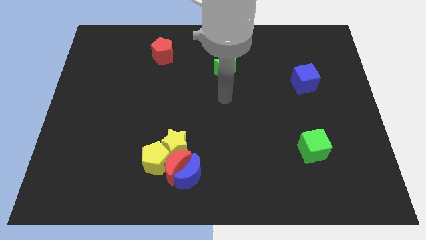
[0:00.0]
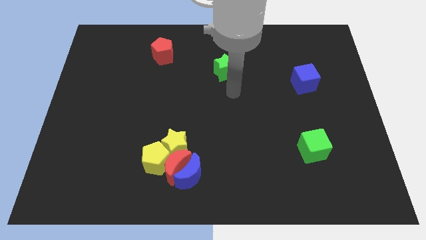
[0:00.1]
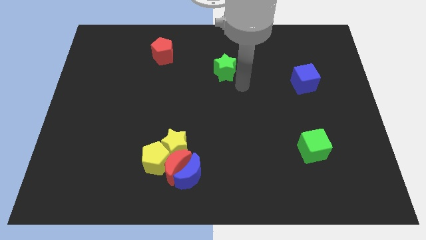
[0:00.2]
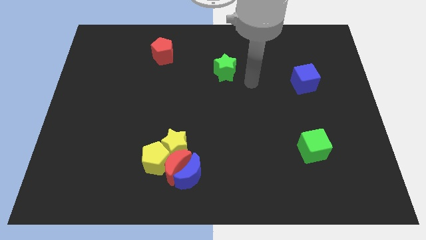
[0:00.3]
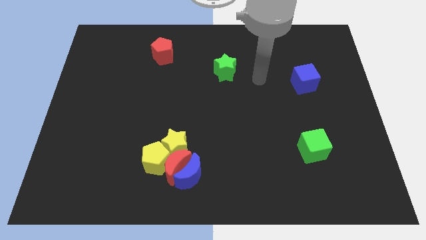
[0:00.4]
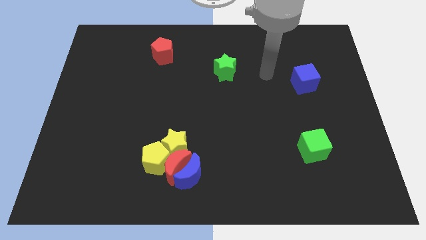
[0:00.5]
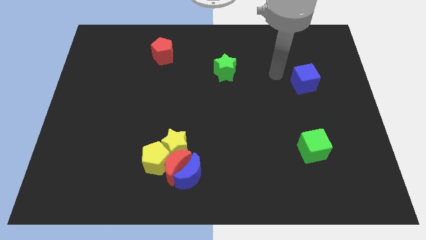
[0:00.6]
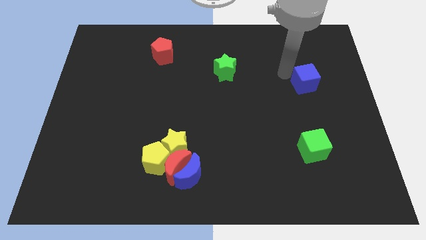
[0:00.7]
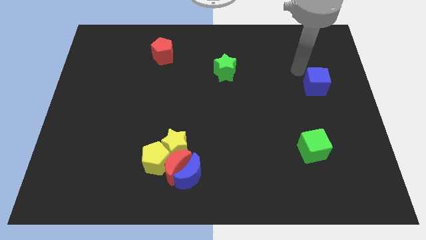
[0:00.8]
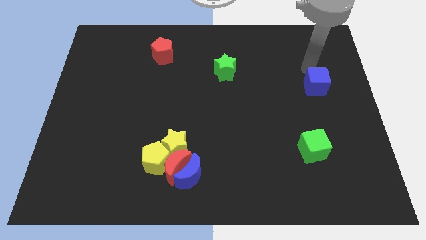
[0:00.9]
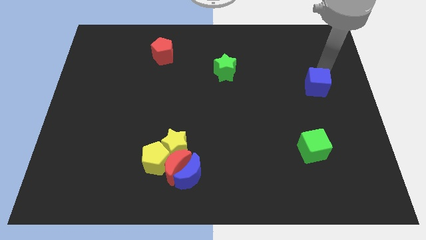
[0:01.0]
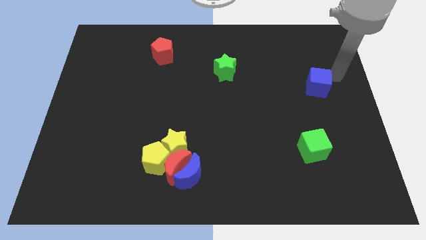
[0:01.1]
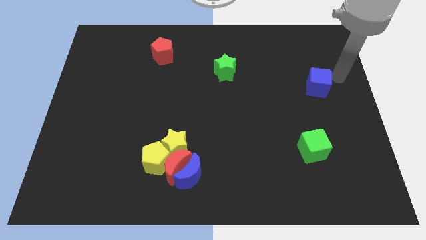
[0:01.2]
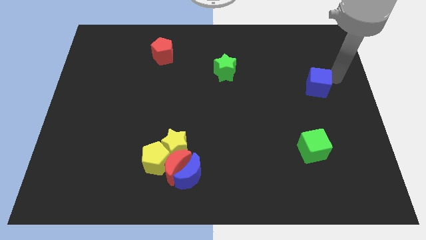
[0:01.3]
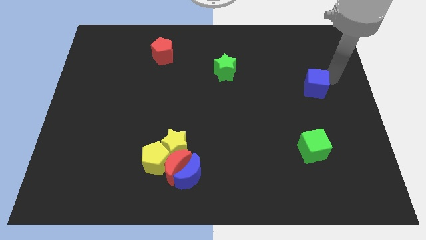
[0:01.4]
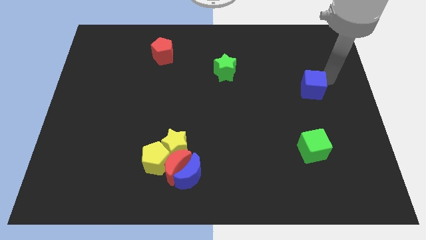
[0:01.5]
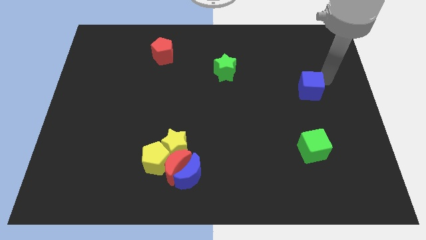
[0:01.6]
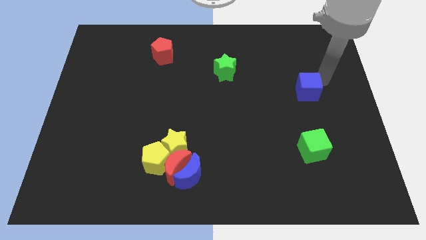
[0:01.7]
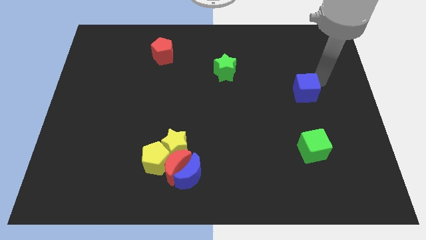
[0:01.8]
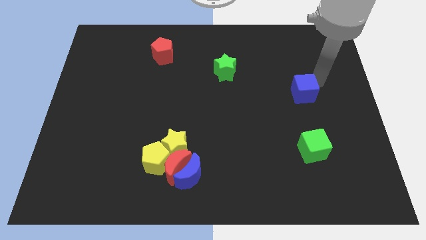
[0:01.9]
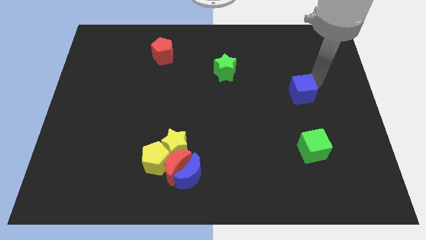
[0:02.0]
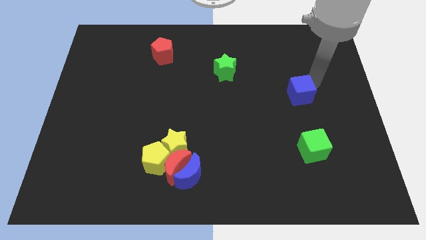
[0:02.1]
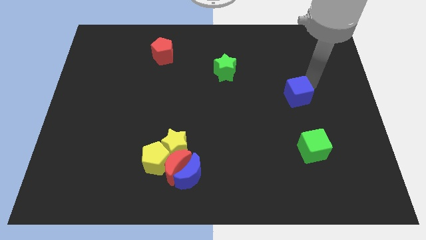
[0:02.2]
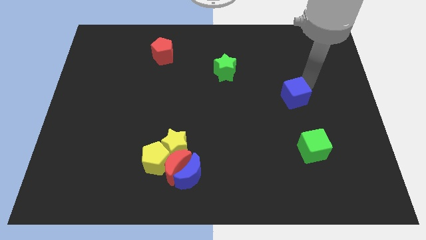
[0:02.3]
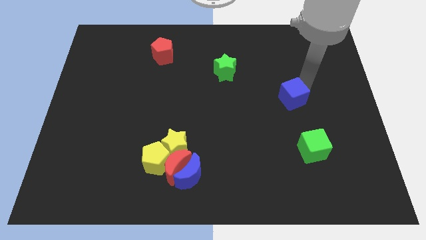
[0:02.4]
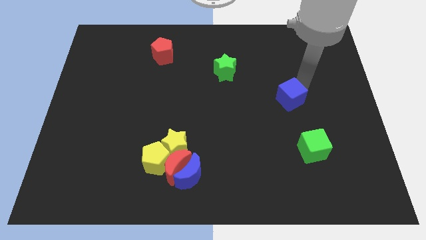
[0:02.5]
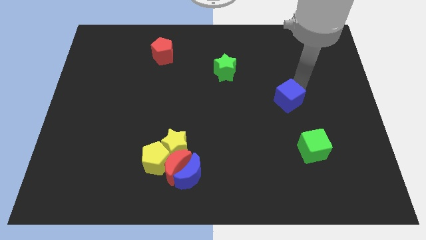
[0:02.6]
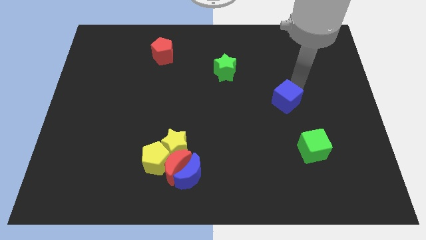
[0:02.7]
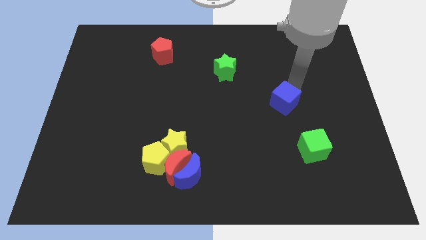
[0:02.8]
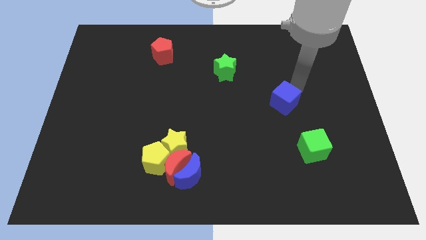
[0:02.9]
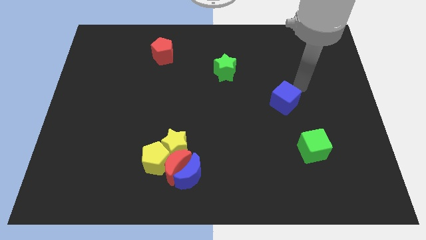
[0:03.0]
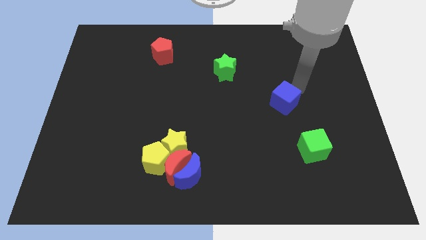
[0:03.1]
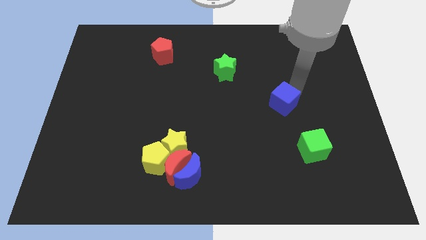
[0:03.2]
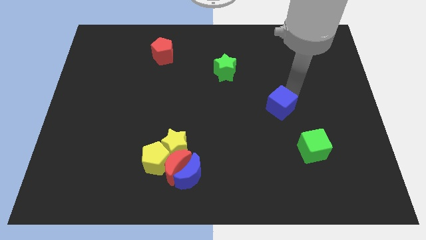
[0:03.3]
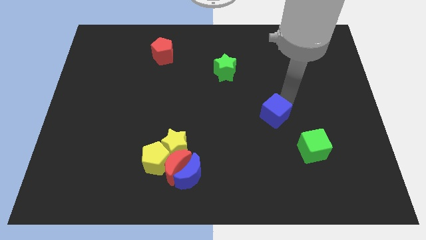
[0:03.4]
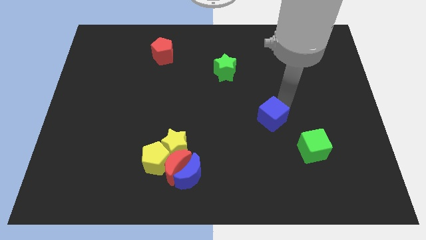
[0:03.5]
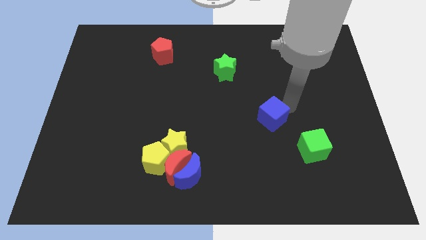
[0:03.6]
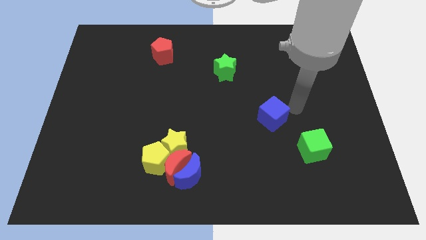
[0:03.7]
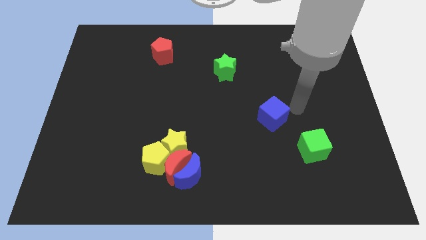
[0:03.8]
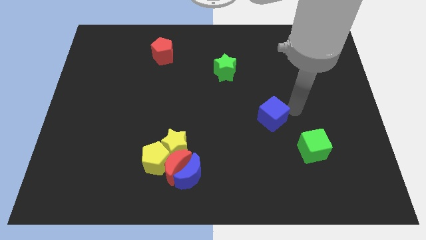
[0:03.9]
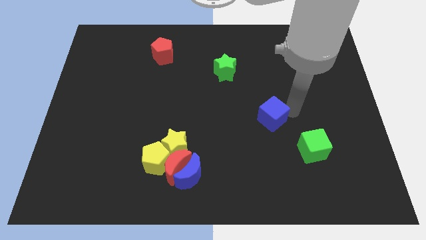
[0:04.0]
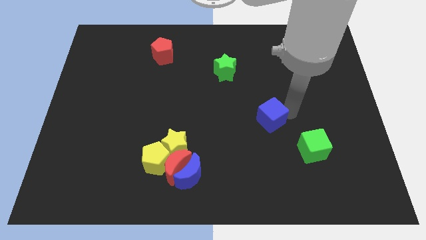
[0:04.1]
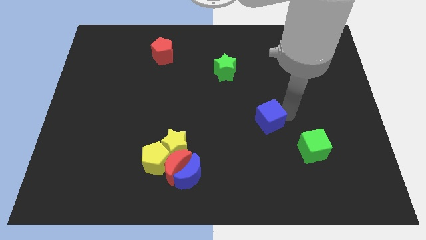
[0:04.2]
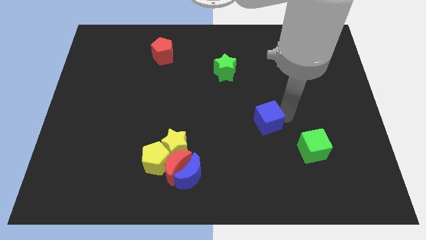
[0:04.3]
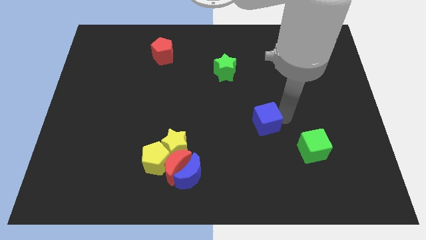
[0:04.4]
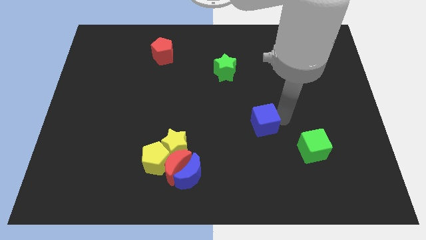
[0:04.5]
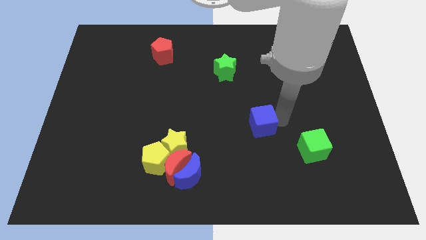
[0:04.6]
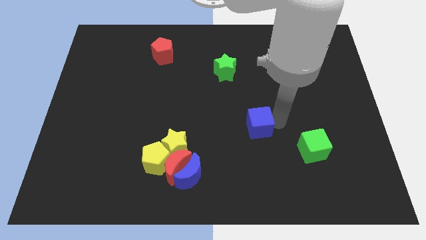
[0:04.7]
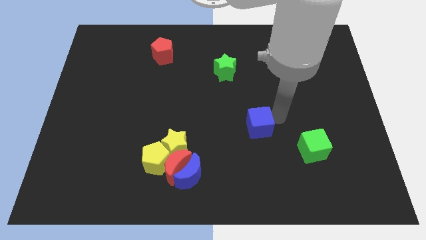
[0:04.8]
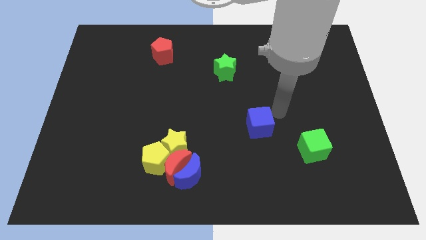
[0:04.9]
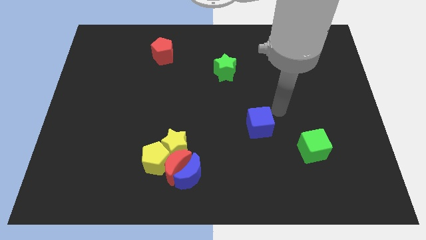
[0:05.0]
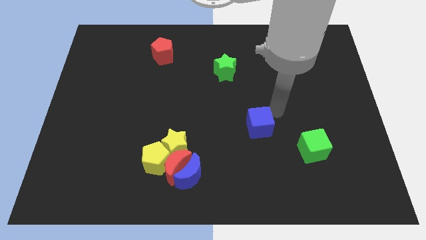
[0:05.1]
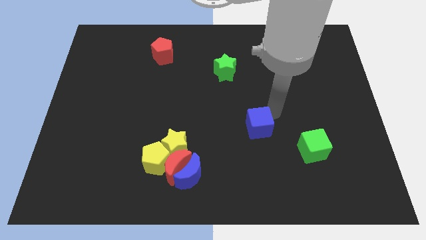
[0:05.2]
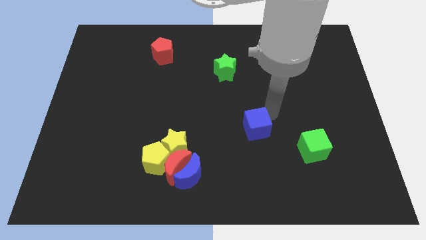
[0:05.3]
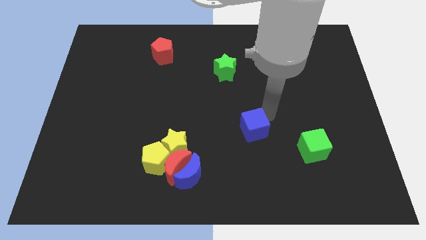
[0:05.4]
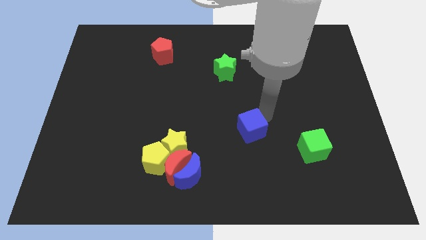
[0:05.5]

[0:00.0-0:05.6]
slide the blue cube diagonally downwards and to the left

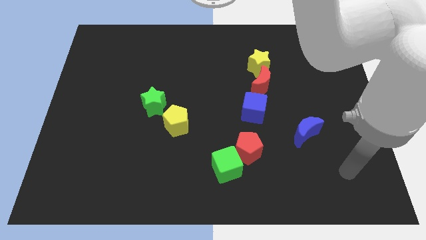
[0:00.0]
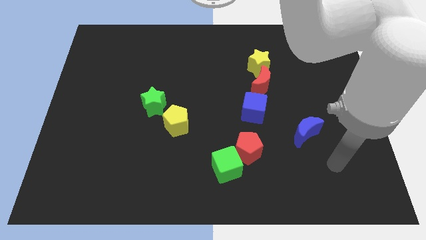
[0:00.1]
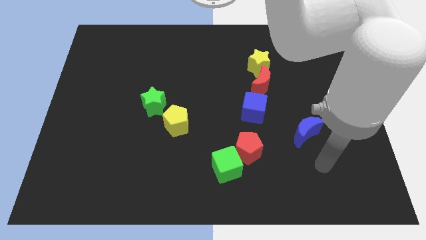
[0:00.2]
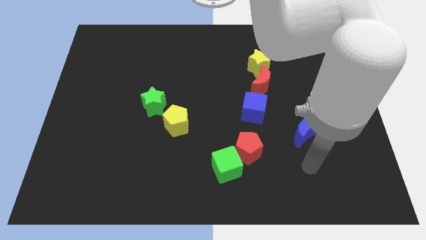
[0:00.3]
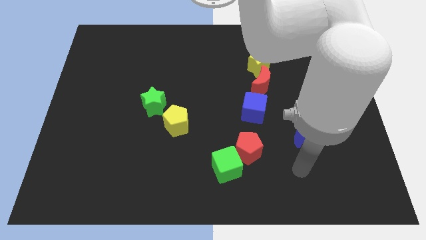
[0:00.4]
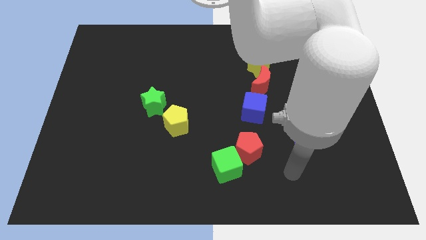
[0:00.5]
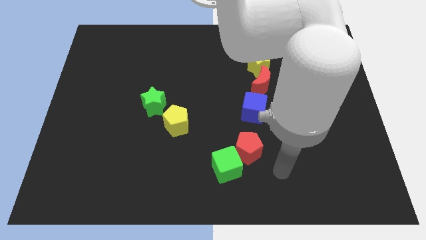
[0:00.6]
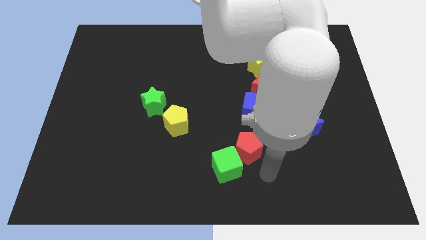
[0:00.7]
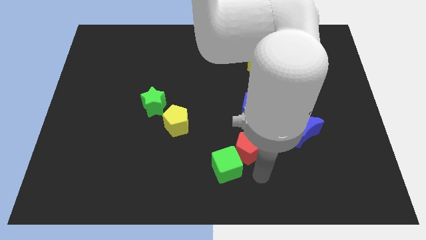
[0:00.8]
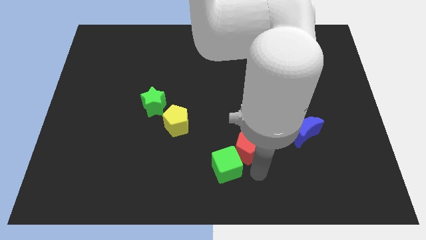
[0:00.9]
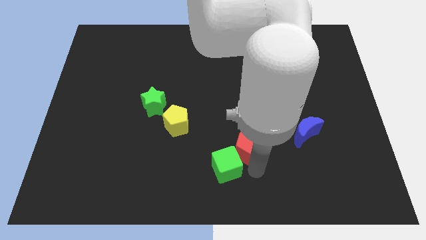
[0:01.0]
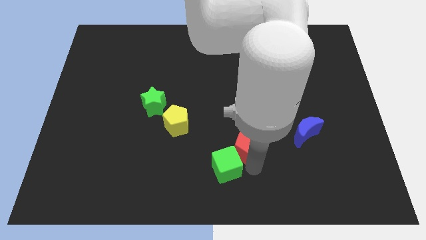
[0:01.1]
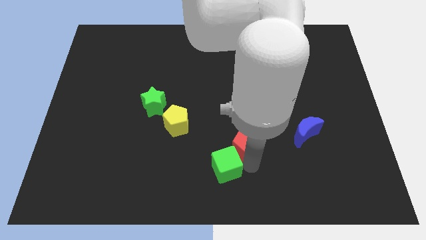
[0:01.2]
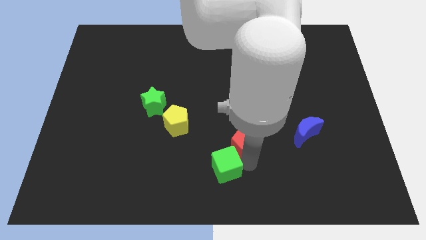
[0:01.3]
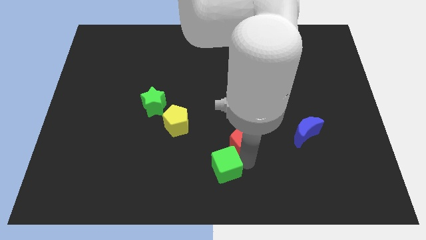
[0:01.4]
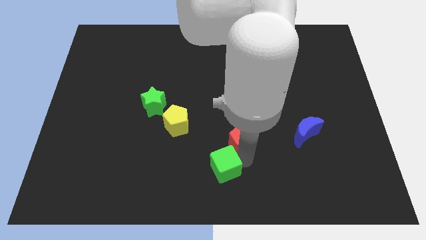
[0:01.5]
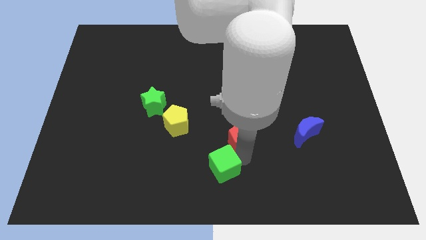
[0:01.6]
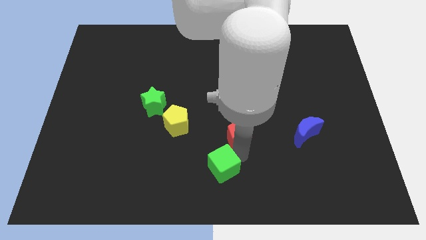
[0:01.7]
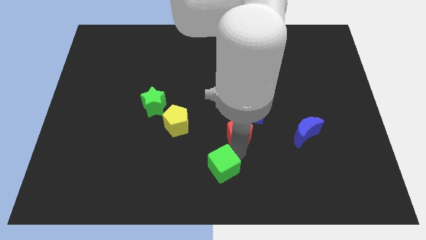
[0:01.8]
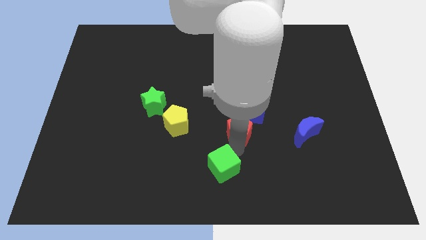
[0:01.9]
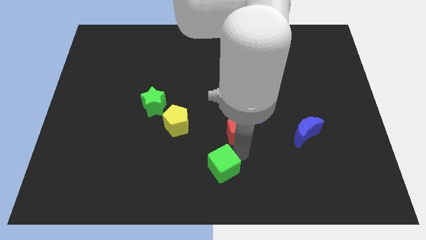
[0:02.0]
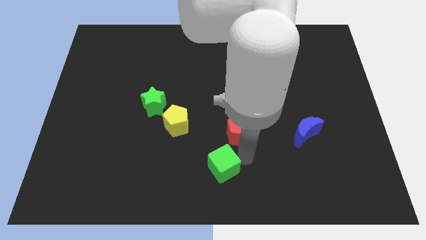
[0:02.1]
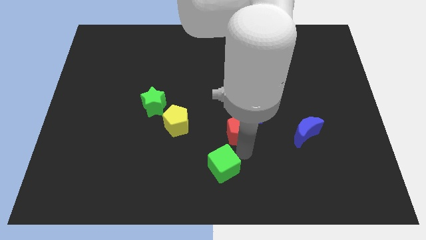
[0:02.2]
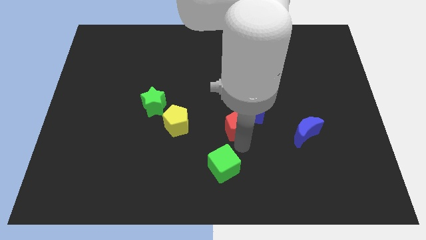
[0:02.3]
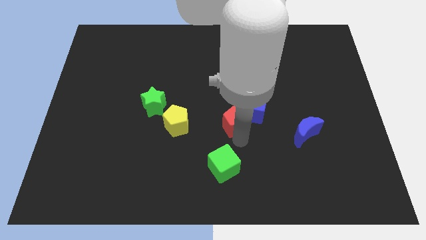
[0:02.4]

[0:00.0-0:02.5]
slightly push the red pentagon upwards

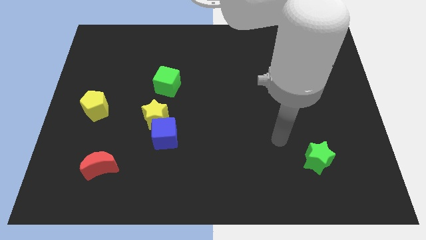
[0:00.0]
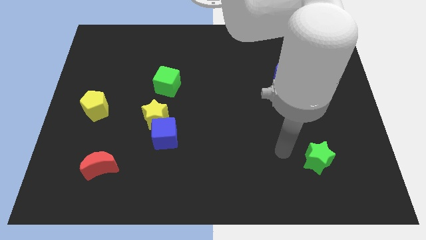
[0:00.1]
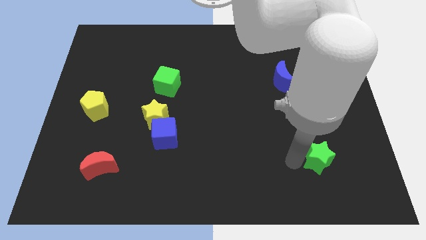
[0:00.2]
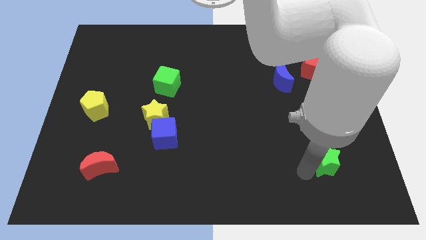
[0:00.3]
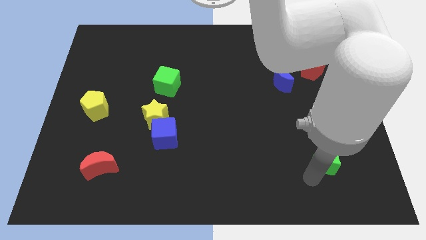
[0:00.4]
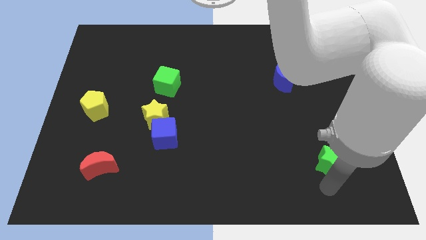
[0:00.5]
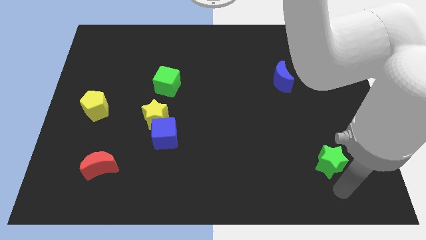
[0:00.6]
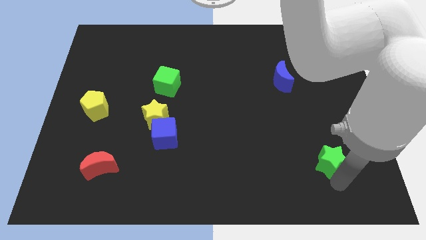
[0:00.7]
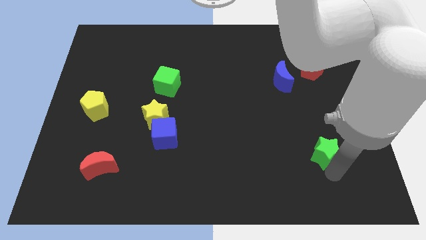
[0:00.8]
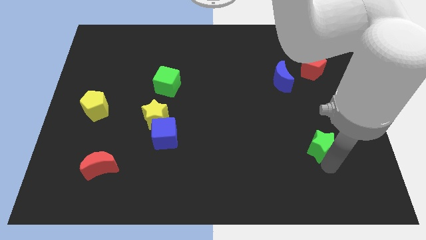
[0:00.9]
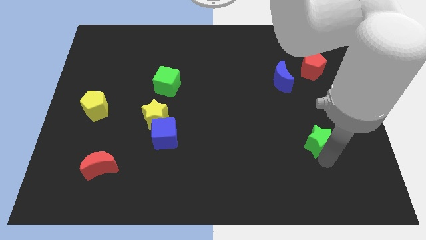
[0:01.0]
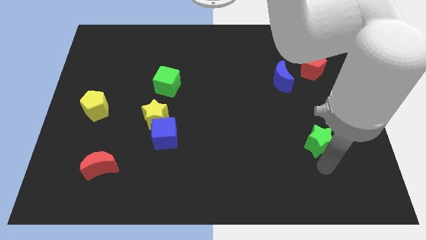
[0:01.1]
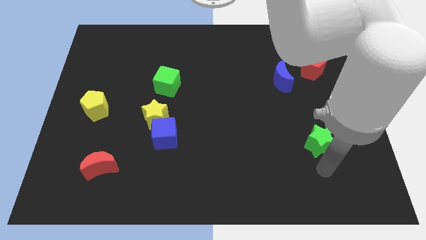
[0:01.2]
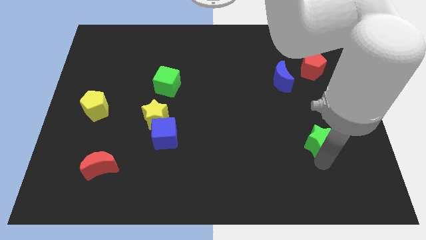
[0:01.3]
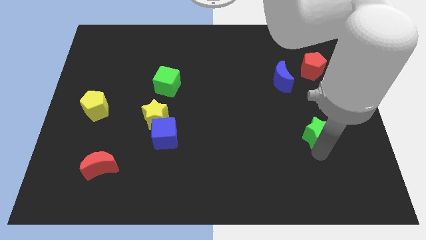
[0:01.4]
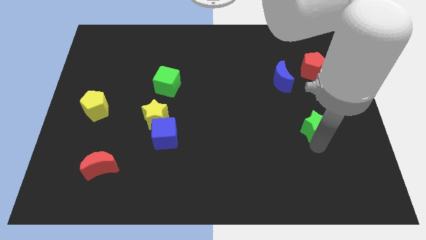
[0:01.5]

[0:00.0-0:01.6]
move the green star upwards a little
